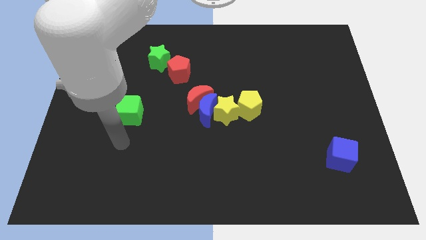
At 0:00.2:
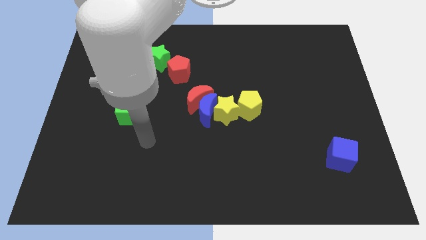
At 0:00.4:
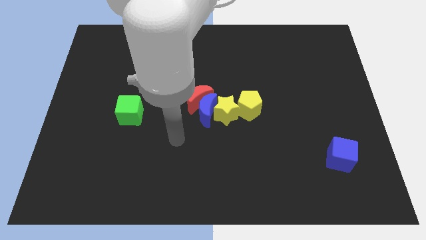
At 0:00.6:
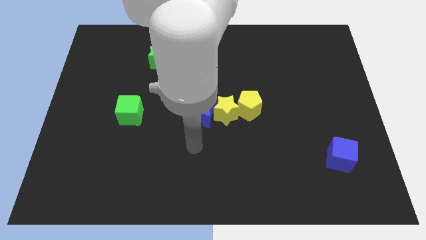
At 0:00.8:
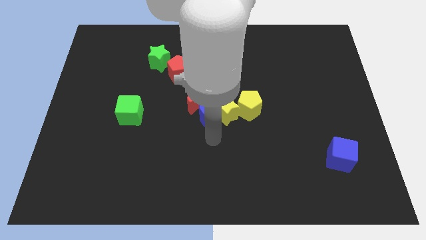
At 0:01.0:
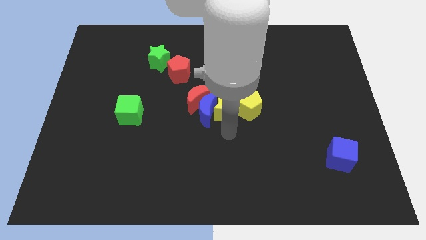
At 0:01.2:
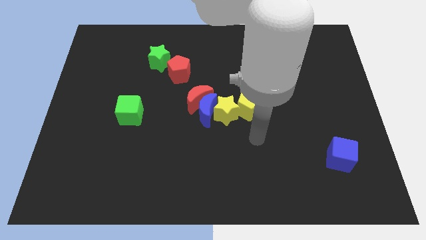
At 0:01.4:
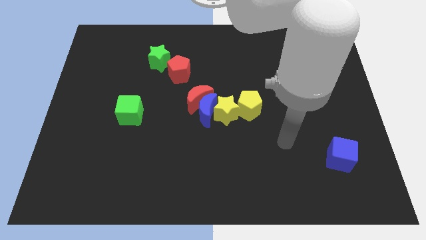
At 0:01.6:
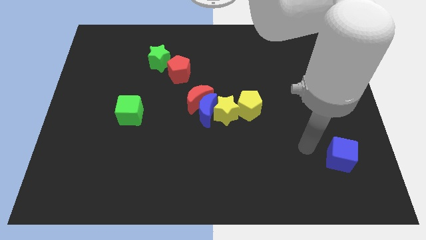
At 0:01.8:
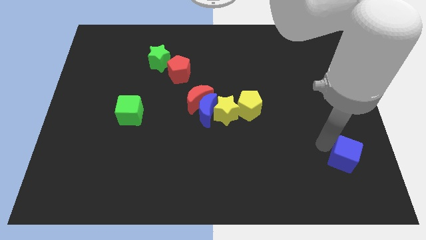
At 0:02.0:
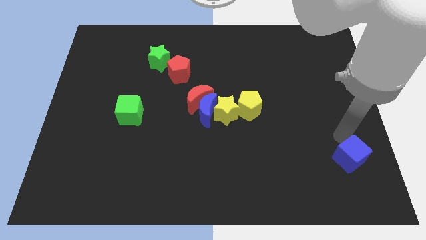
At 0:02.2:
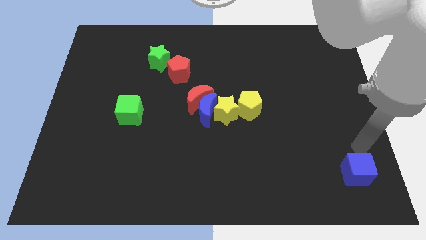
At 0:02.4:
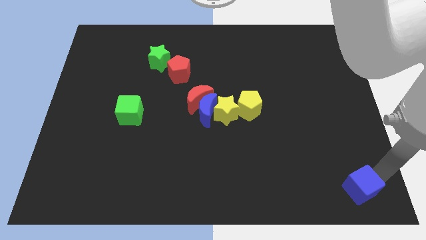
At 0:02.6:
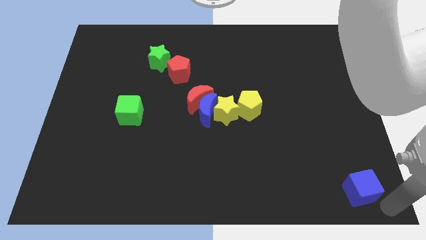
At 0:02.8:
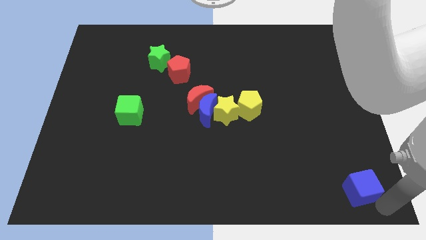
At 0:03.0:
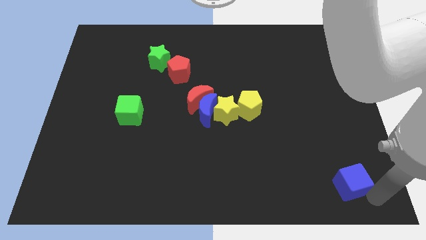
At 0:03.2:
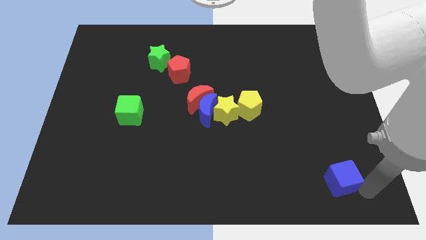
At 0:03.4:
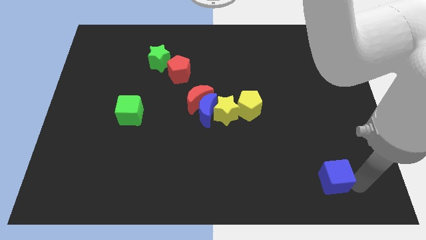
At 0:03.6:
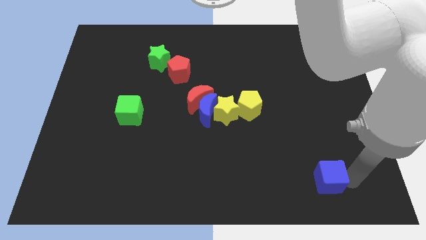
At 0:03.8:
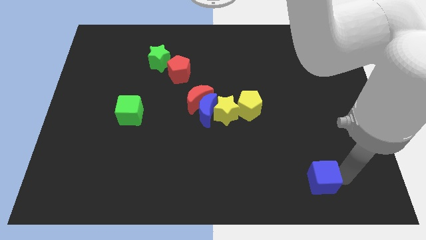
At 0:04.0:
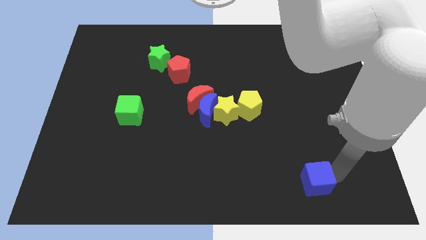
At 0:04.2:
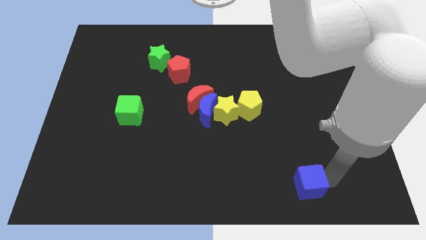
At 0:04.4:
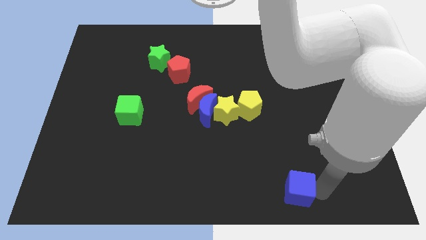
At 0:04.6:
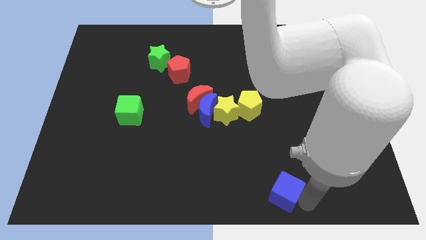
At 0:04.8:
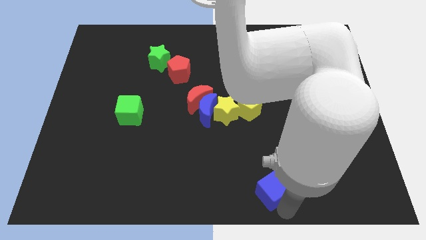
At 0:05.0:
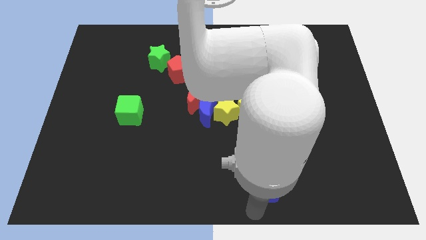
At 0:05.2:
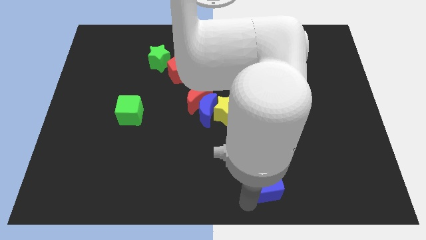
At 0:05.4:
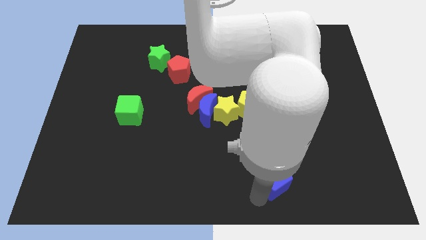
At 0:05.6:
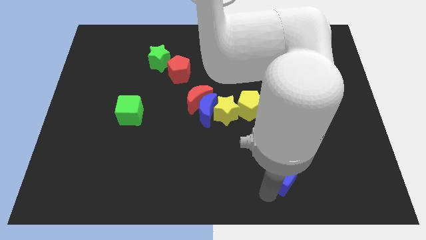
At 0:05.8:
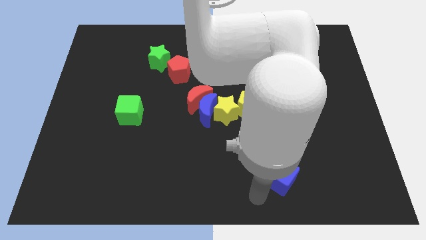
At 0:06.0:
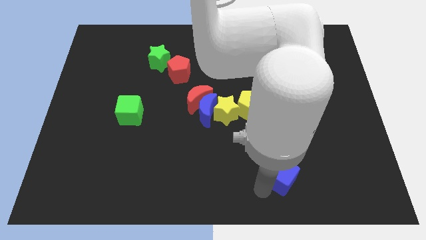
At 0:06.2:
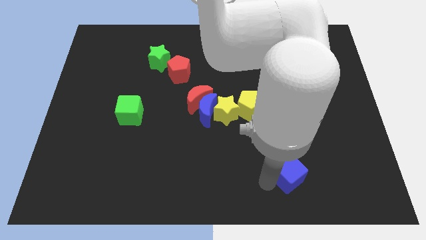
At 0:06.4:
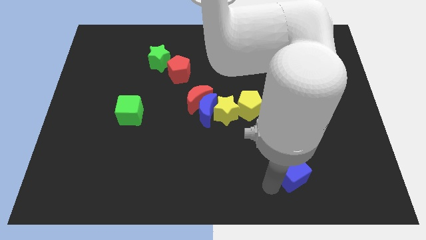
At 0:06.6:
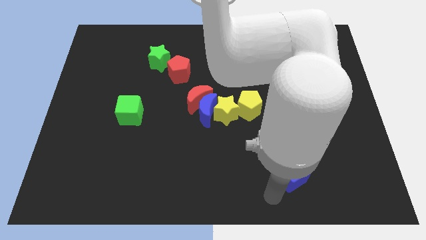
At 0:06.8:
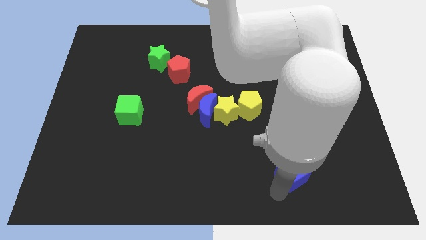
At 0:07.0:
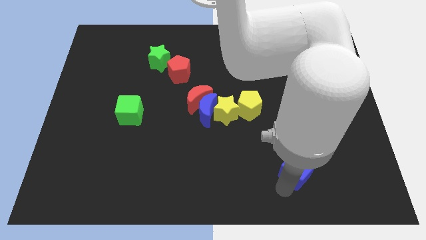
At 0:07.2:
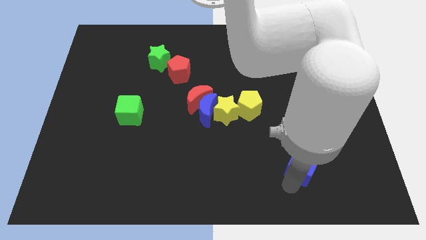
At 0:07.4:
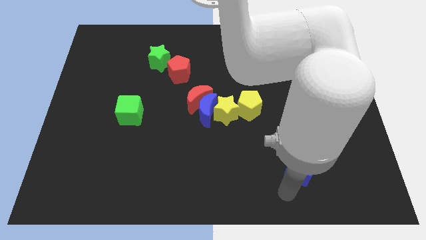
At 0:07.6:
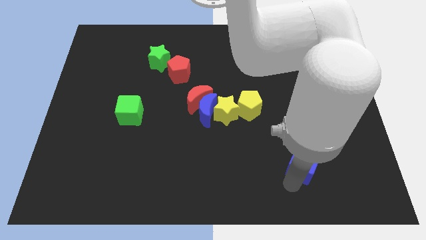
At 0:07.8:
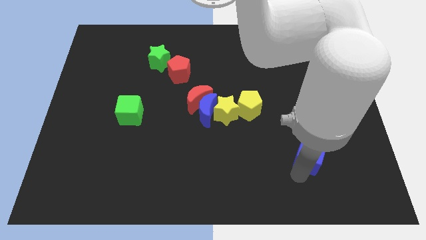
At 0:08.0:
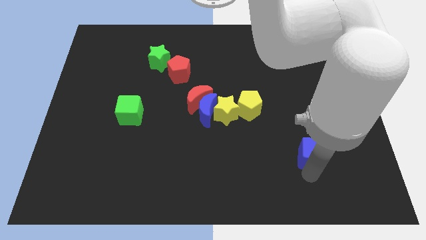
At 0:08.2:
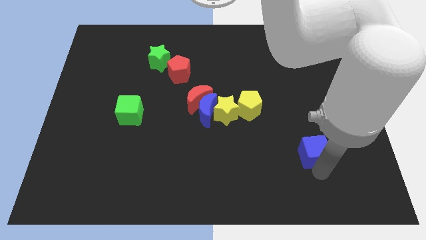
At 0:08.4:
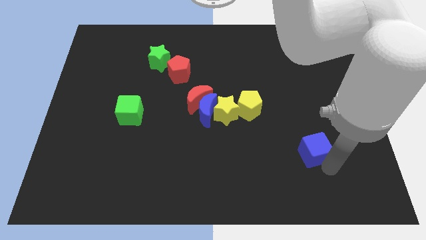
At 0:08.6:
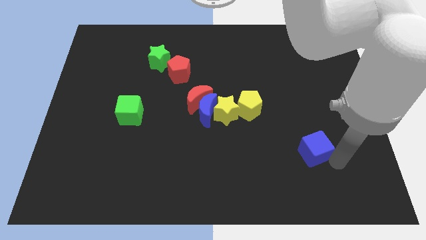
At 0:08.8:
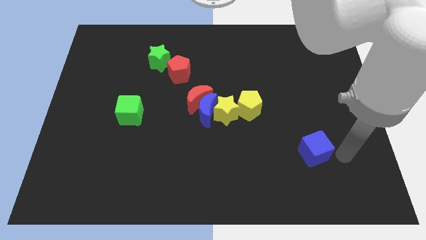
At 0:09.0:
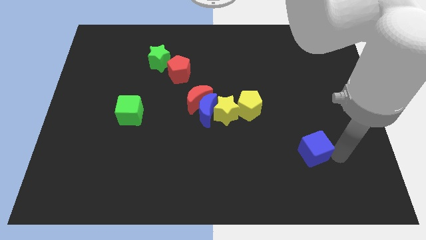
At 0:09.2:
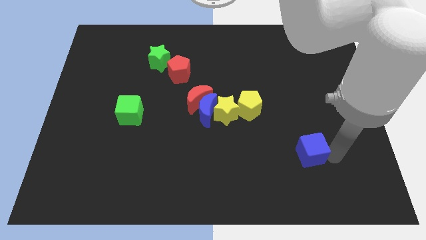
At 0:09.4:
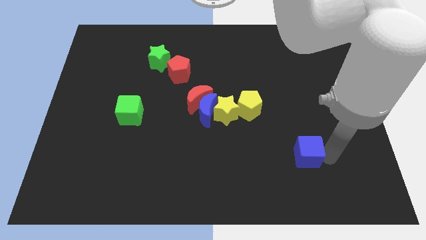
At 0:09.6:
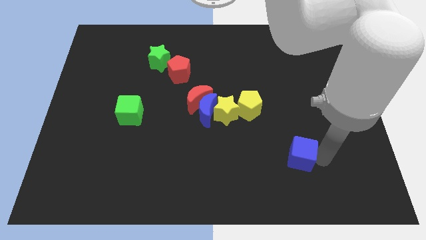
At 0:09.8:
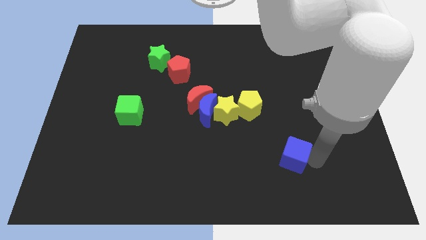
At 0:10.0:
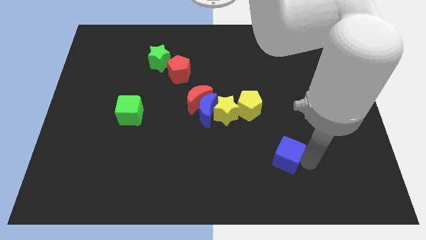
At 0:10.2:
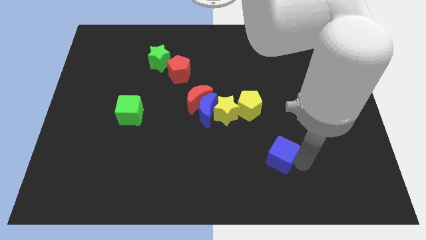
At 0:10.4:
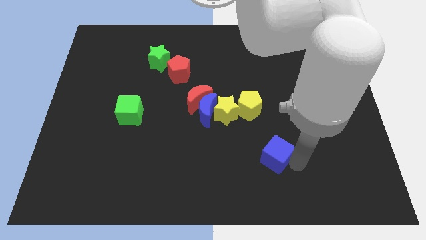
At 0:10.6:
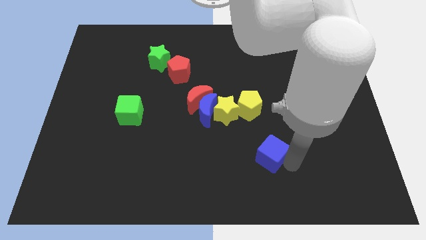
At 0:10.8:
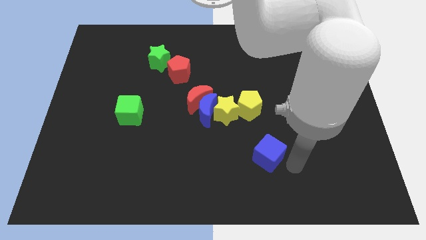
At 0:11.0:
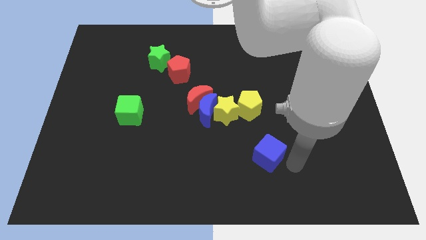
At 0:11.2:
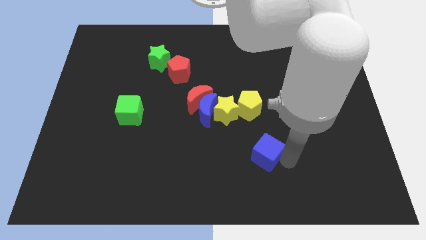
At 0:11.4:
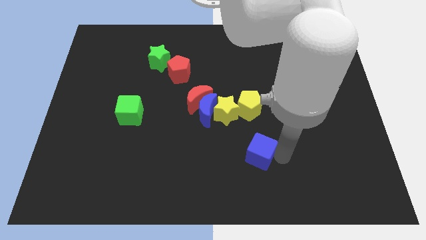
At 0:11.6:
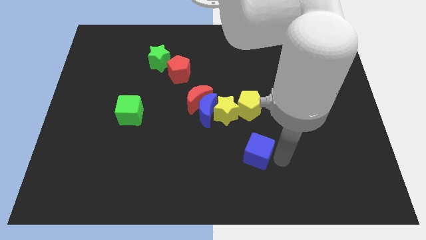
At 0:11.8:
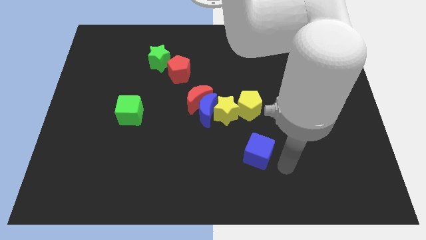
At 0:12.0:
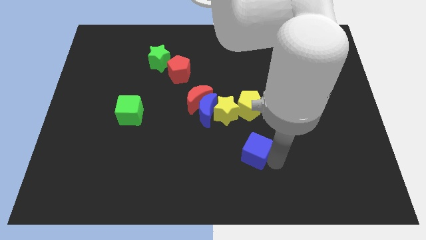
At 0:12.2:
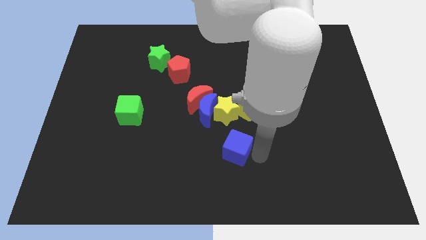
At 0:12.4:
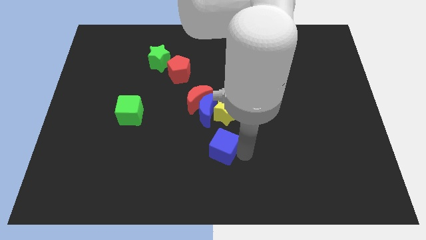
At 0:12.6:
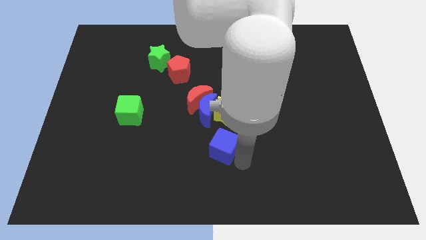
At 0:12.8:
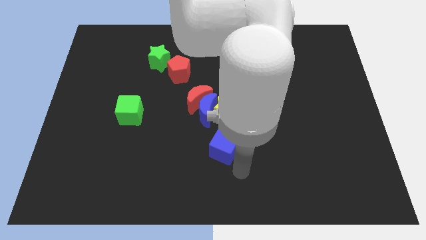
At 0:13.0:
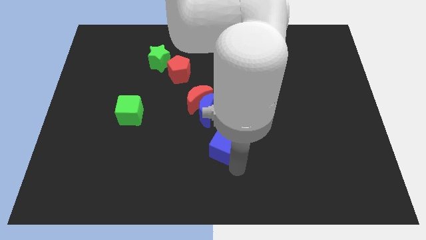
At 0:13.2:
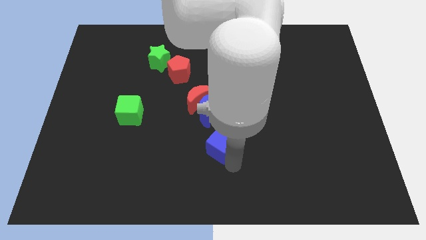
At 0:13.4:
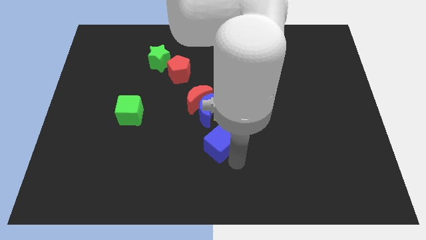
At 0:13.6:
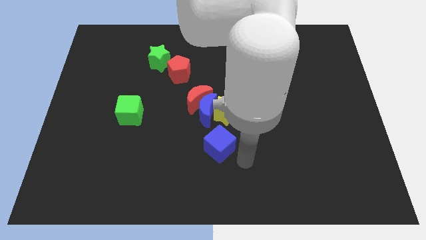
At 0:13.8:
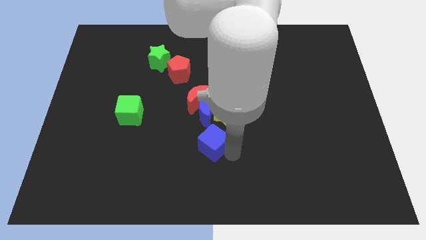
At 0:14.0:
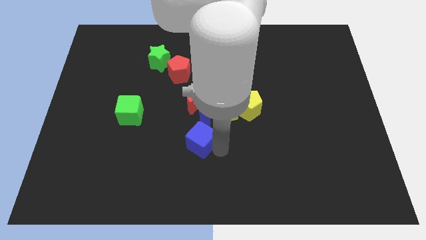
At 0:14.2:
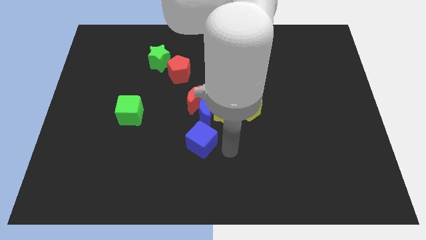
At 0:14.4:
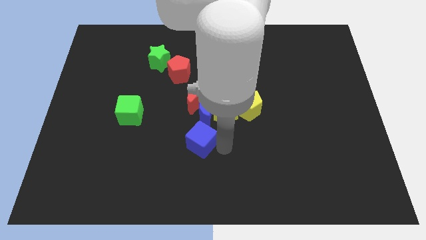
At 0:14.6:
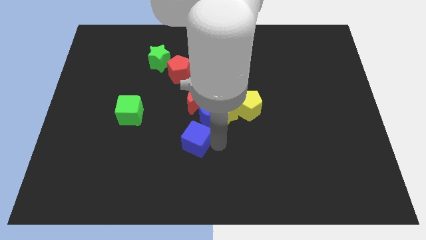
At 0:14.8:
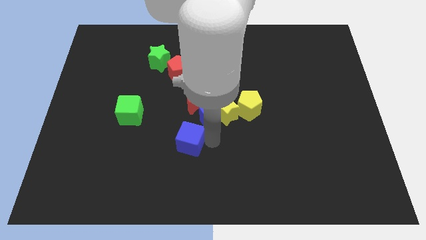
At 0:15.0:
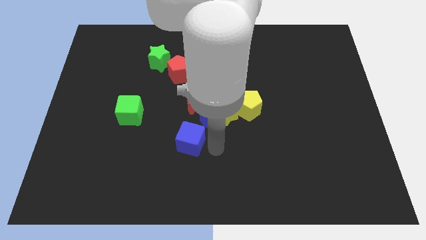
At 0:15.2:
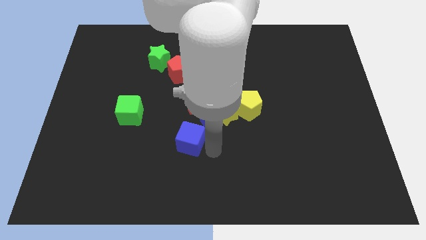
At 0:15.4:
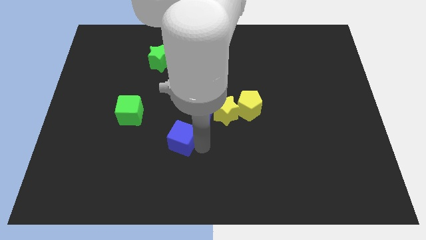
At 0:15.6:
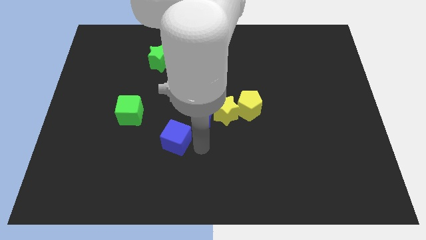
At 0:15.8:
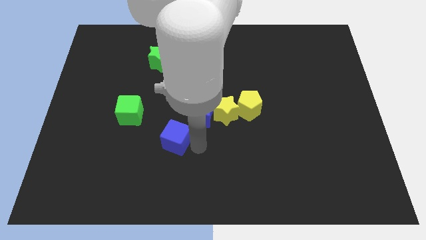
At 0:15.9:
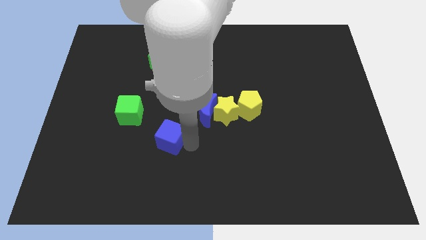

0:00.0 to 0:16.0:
move the blue cube to the bottom right of the green cube
